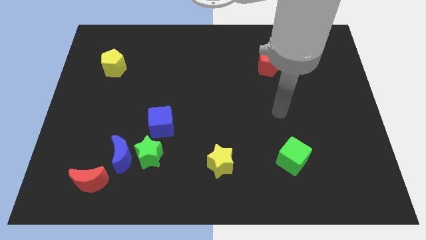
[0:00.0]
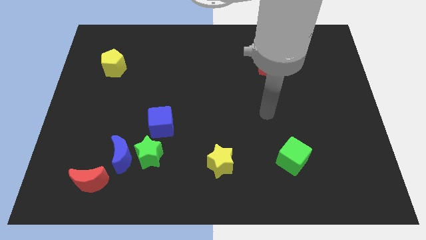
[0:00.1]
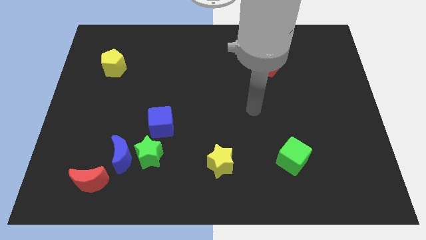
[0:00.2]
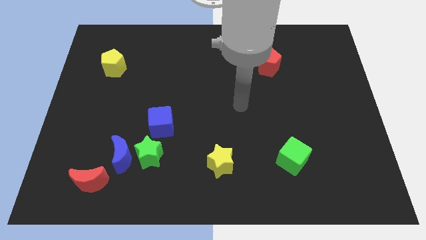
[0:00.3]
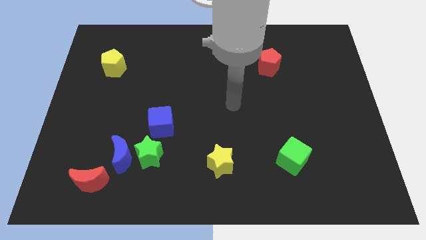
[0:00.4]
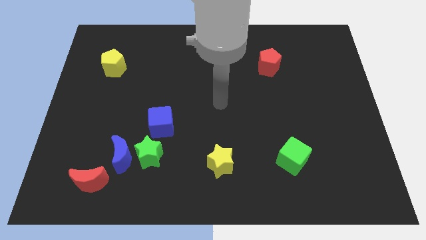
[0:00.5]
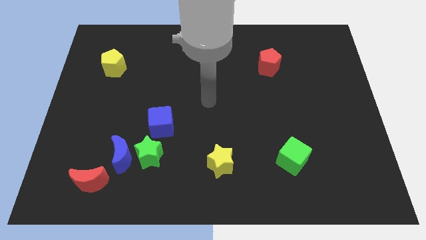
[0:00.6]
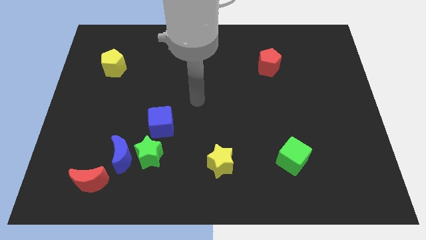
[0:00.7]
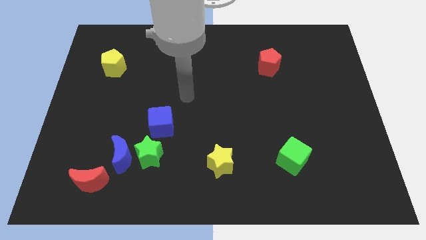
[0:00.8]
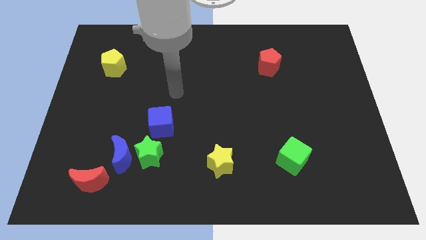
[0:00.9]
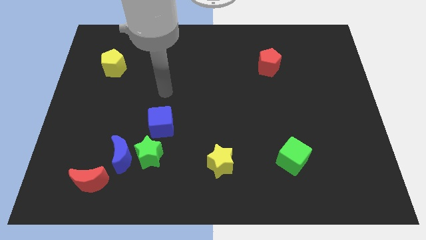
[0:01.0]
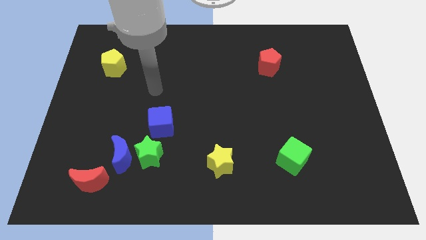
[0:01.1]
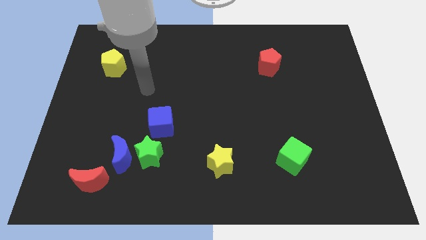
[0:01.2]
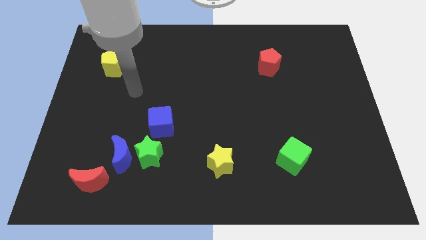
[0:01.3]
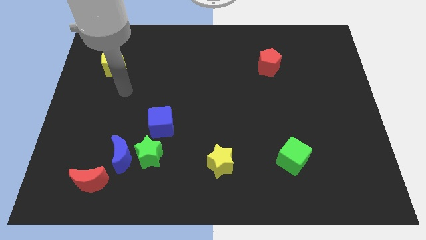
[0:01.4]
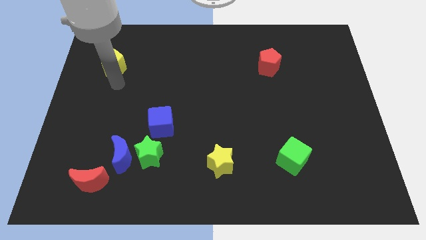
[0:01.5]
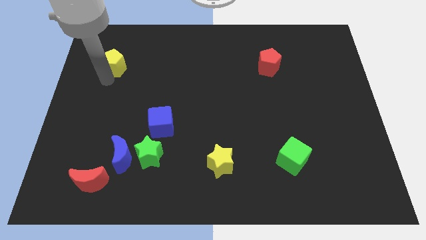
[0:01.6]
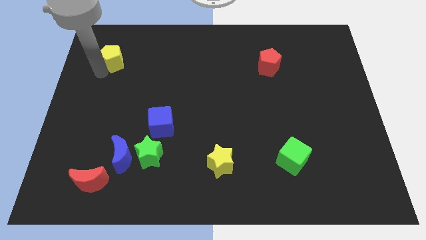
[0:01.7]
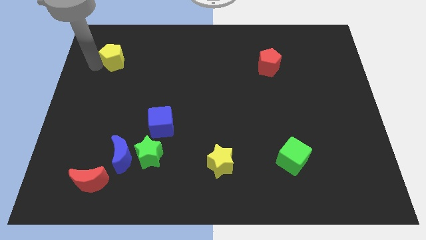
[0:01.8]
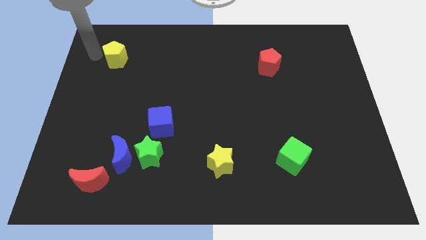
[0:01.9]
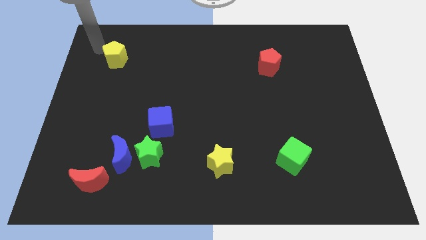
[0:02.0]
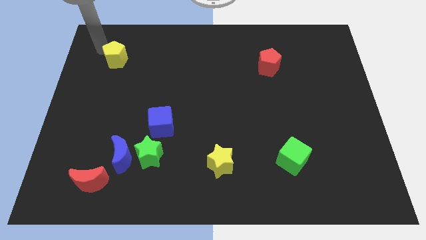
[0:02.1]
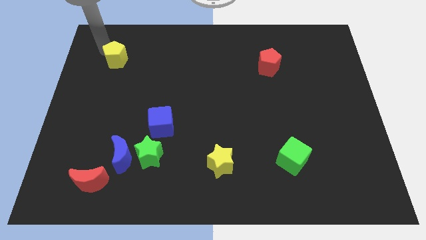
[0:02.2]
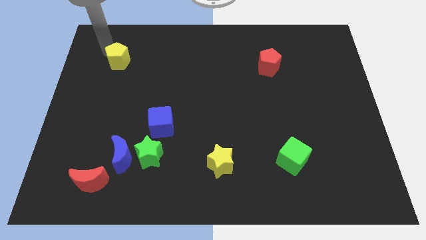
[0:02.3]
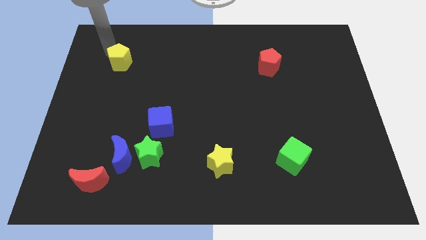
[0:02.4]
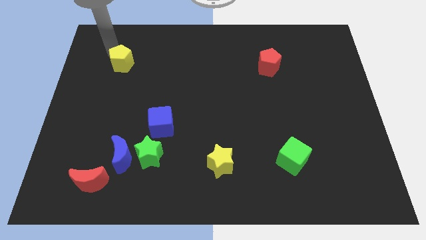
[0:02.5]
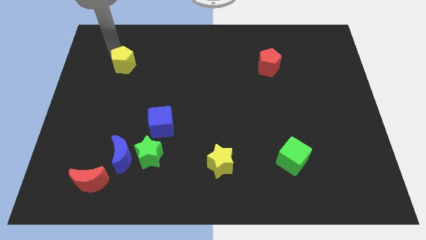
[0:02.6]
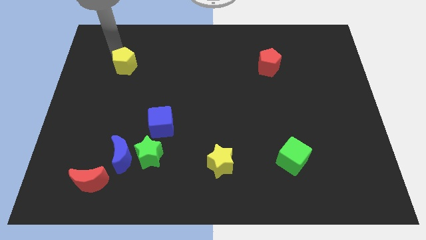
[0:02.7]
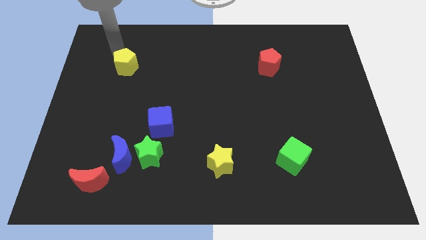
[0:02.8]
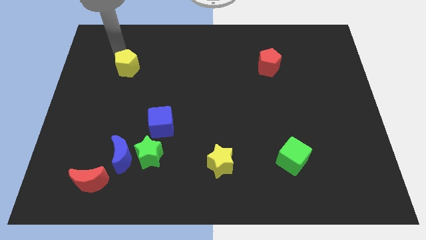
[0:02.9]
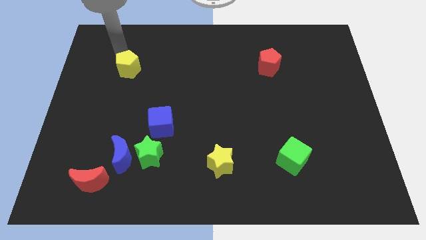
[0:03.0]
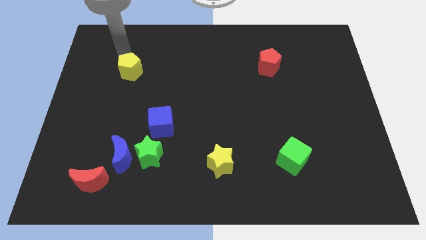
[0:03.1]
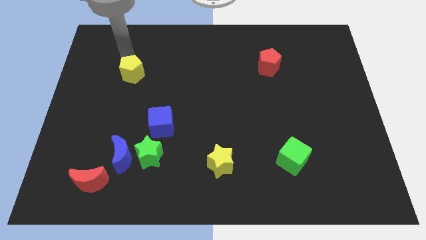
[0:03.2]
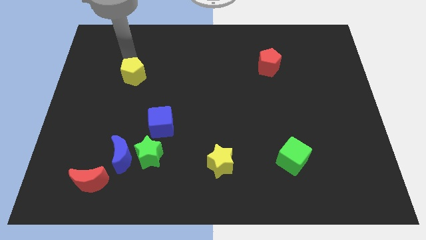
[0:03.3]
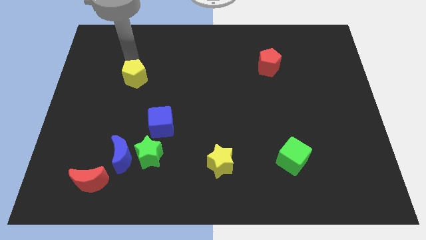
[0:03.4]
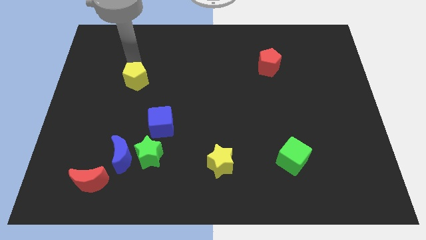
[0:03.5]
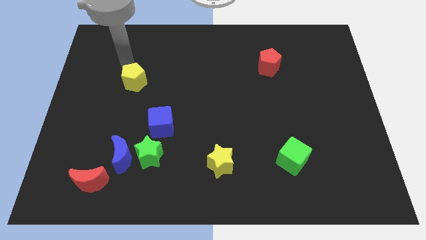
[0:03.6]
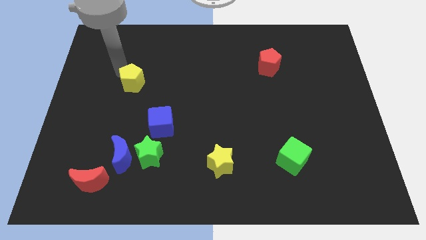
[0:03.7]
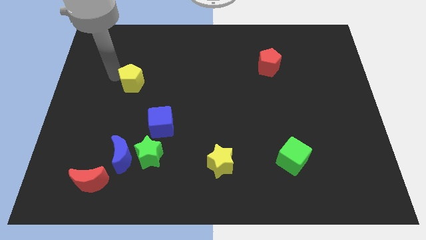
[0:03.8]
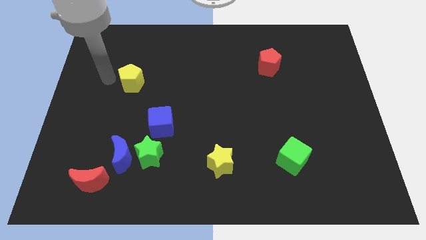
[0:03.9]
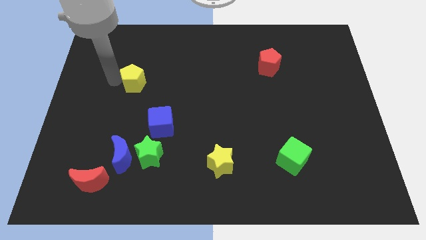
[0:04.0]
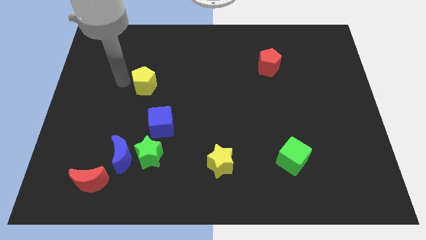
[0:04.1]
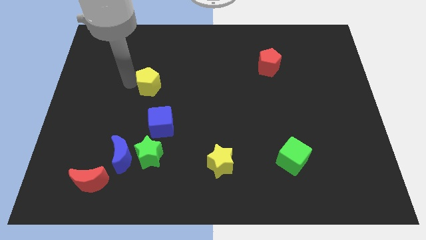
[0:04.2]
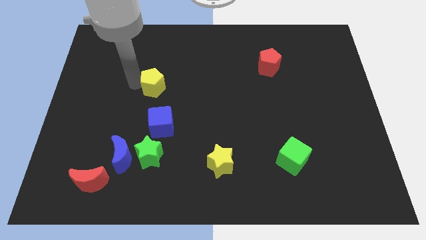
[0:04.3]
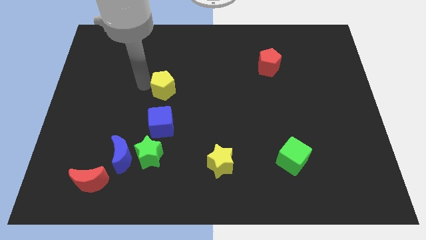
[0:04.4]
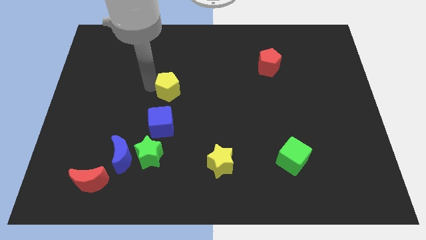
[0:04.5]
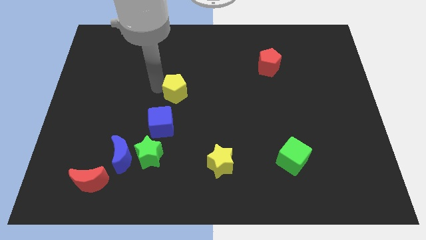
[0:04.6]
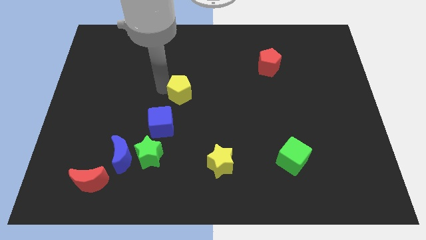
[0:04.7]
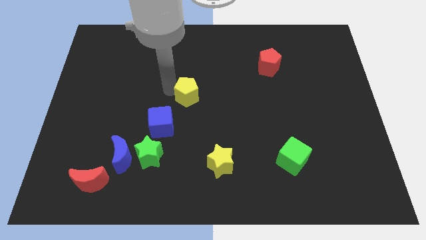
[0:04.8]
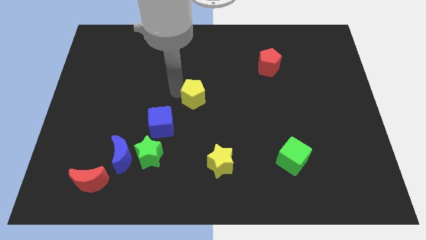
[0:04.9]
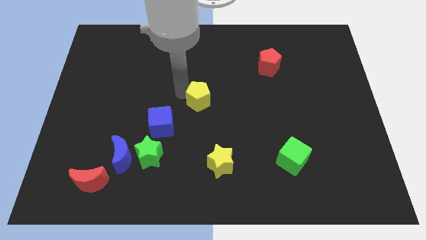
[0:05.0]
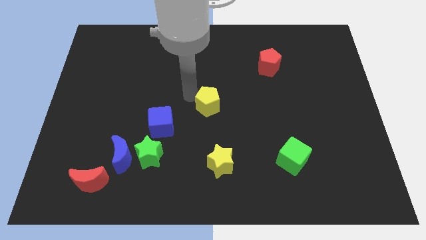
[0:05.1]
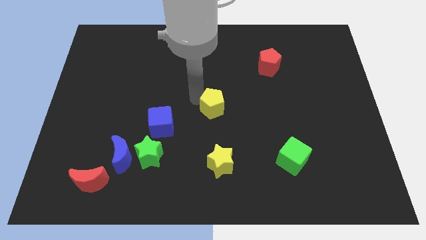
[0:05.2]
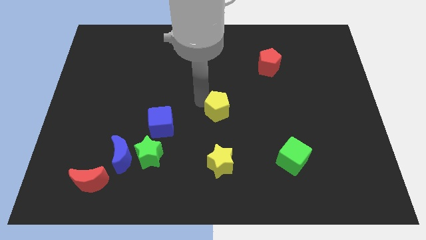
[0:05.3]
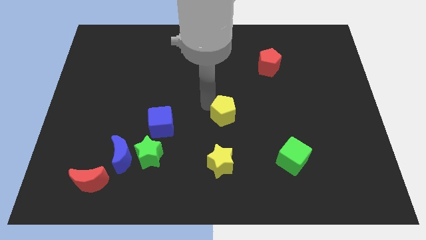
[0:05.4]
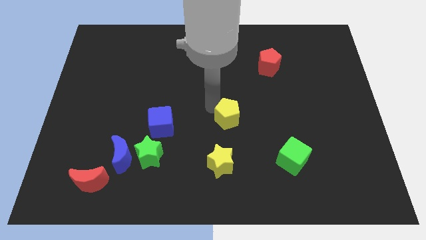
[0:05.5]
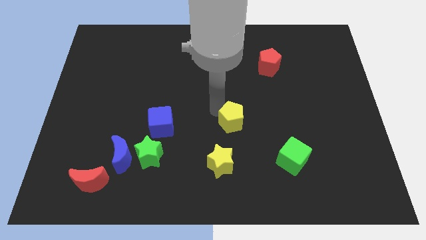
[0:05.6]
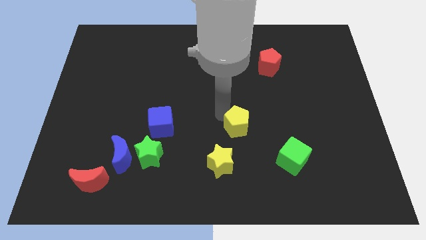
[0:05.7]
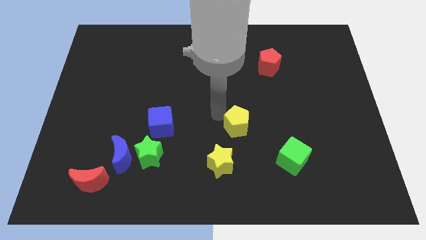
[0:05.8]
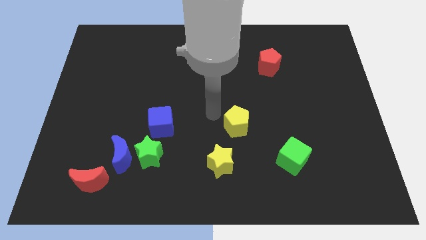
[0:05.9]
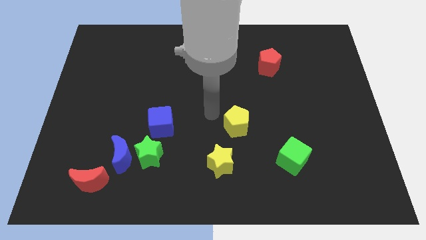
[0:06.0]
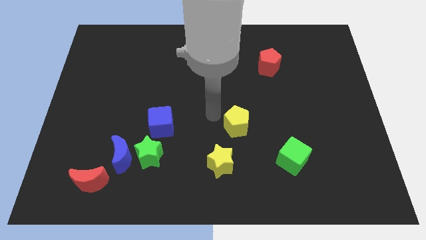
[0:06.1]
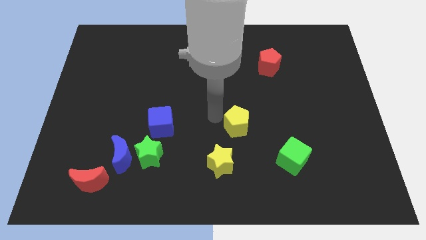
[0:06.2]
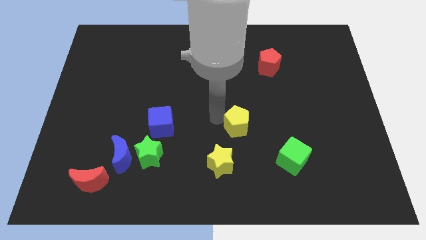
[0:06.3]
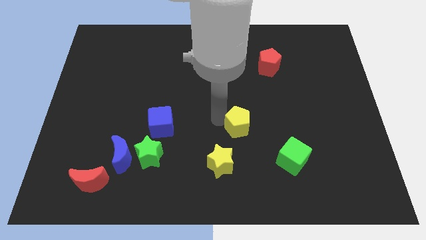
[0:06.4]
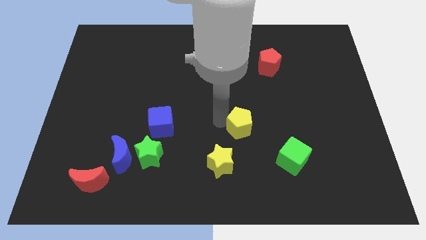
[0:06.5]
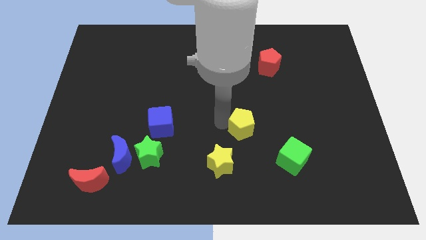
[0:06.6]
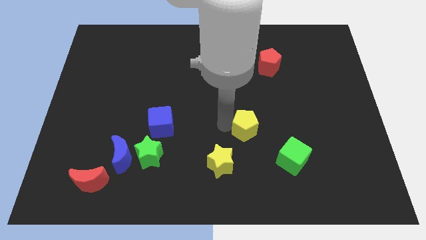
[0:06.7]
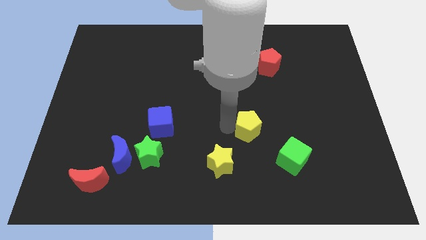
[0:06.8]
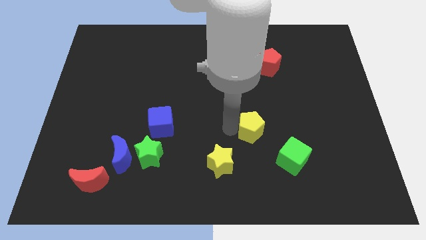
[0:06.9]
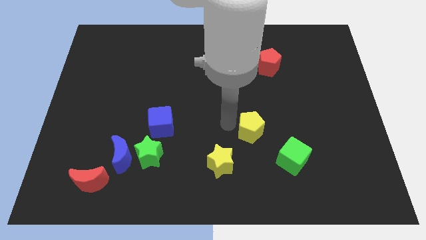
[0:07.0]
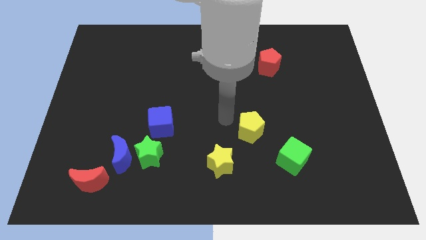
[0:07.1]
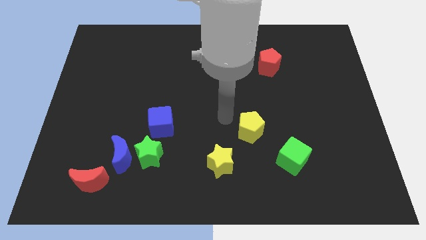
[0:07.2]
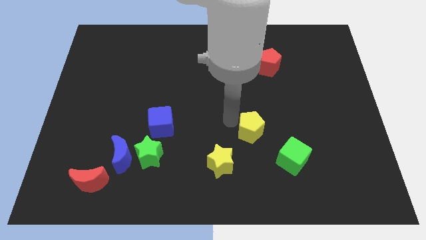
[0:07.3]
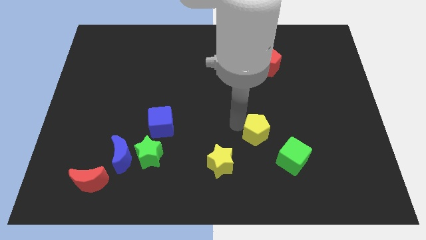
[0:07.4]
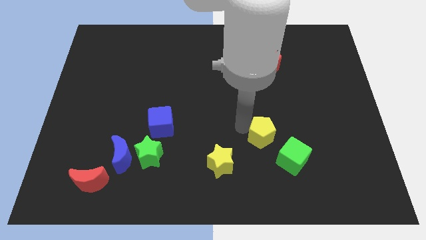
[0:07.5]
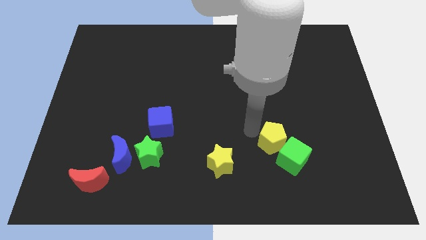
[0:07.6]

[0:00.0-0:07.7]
move the yellow pentagon towards the green cube

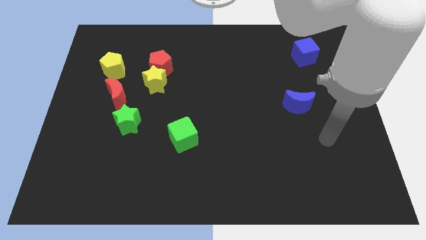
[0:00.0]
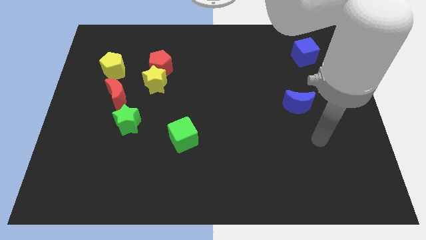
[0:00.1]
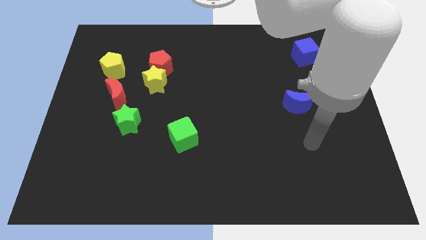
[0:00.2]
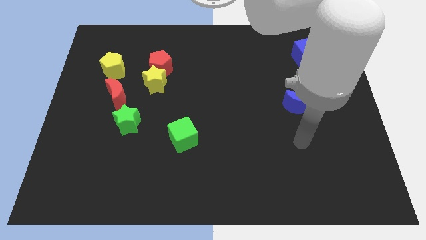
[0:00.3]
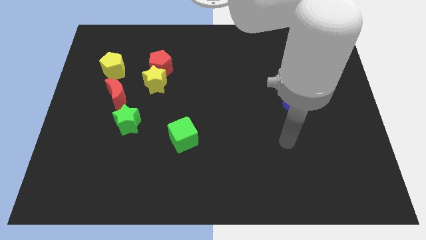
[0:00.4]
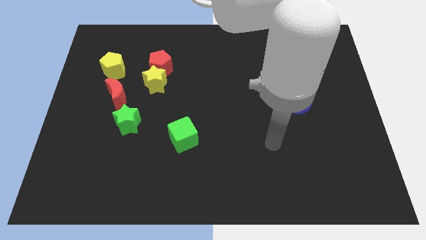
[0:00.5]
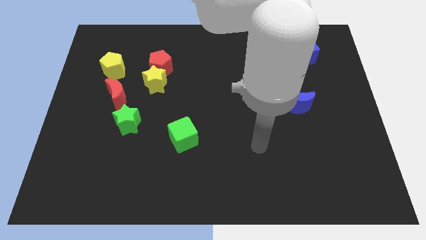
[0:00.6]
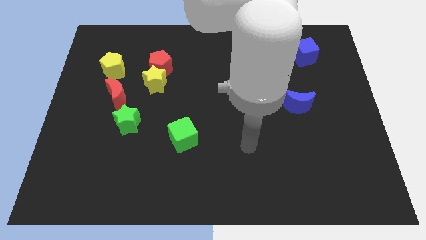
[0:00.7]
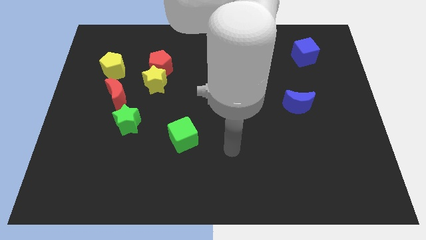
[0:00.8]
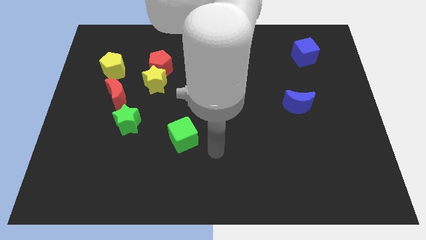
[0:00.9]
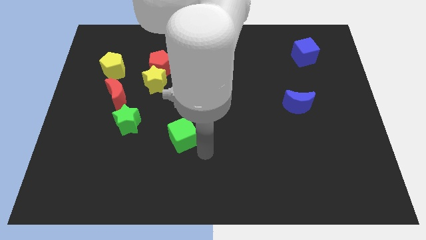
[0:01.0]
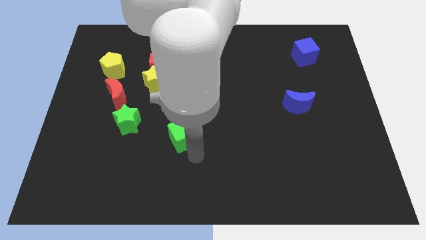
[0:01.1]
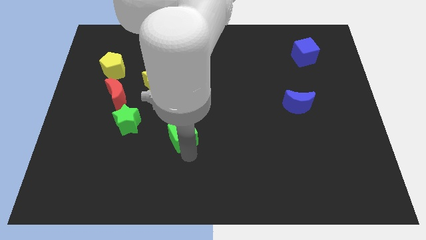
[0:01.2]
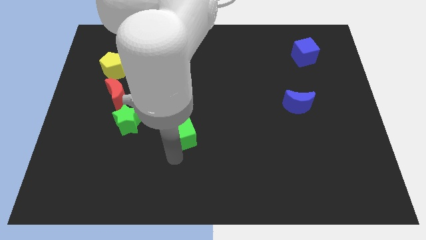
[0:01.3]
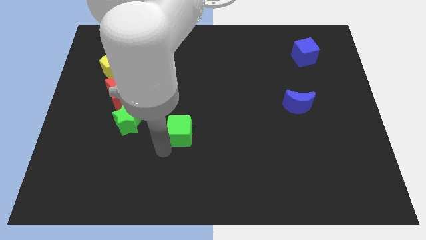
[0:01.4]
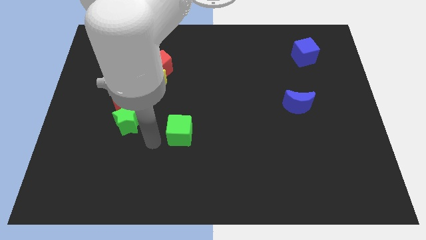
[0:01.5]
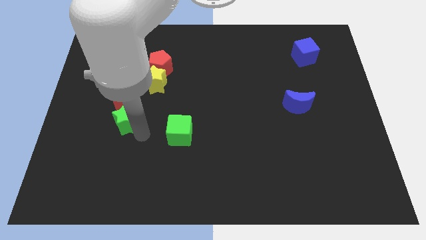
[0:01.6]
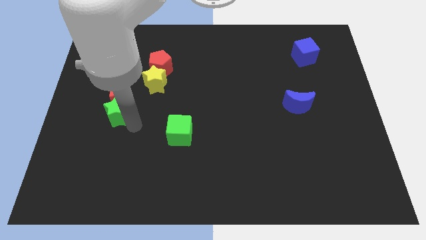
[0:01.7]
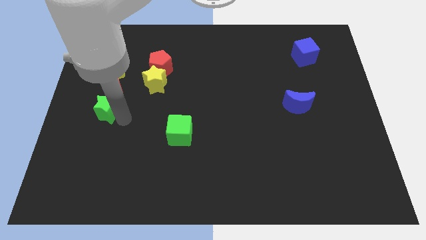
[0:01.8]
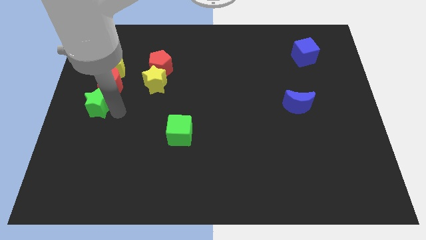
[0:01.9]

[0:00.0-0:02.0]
slide the red moon next to the yellow pentagon
